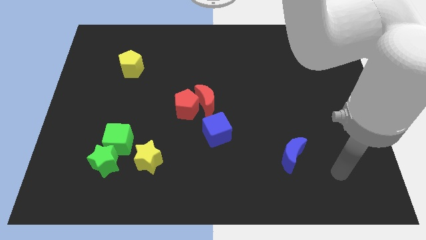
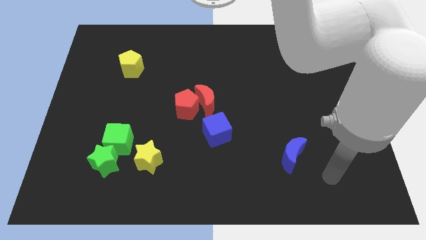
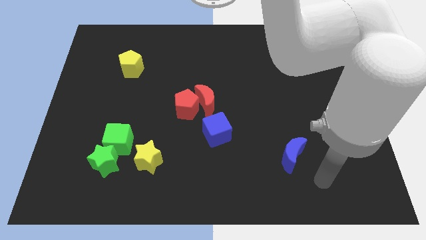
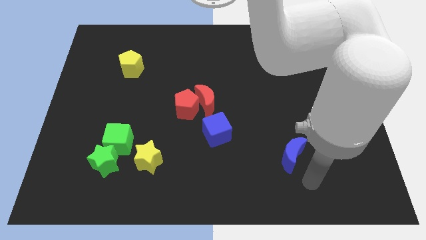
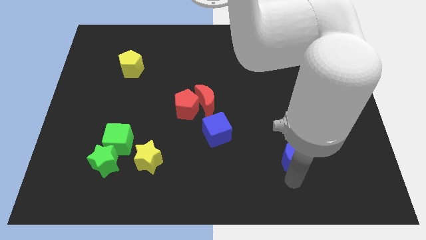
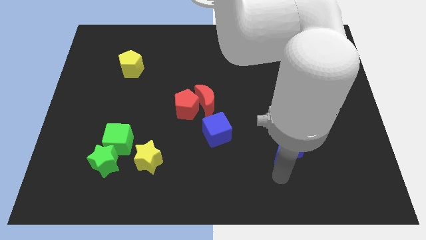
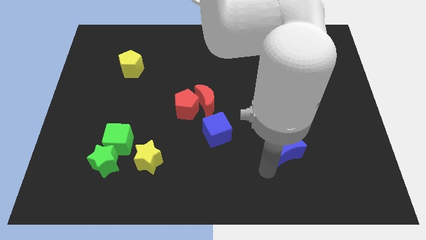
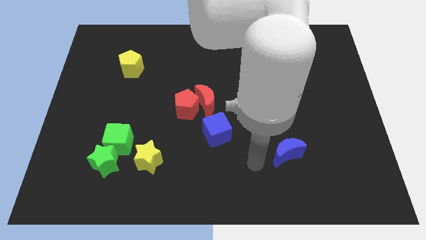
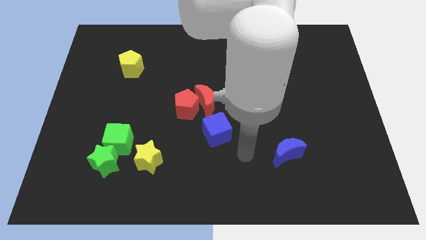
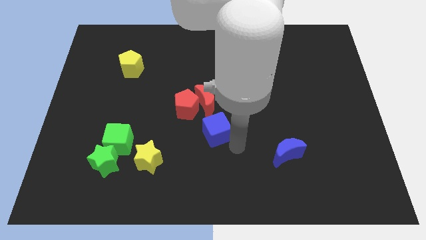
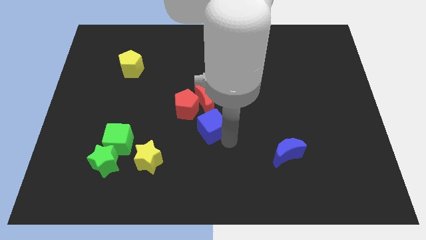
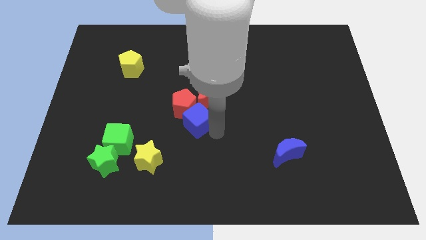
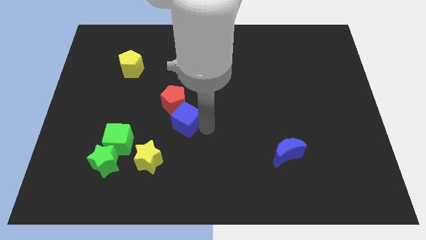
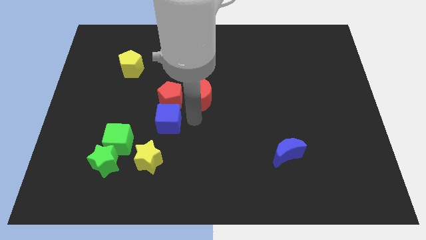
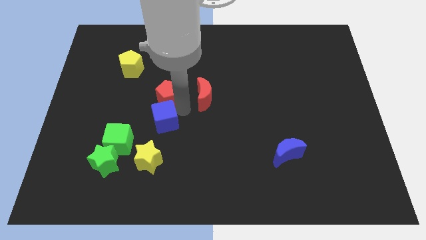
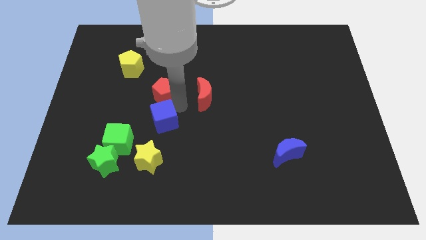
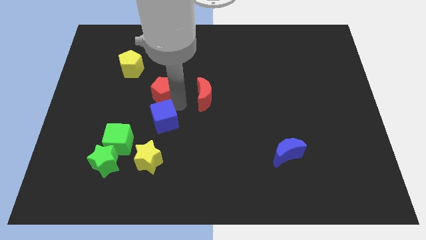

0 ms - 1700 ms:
pull the red moon apart from the red pentagon and blue cube

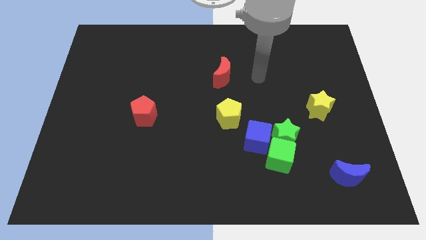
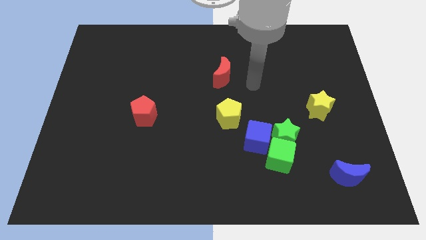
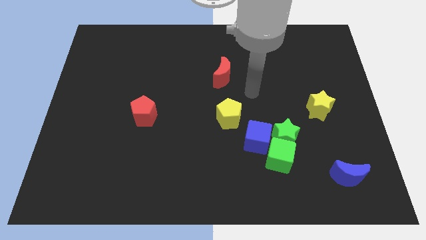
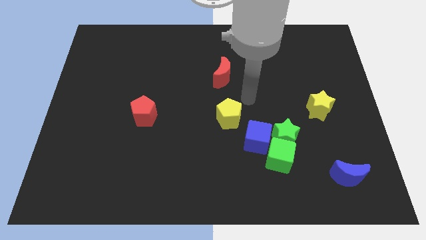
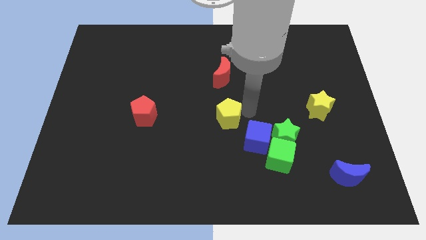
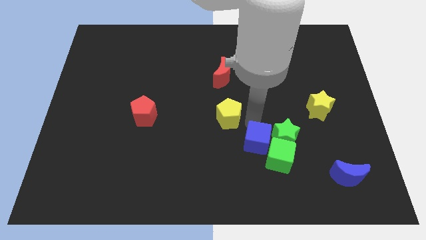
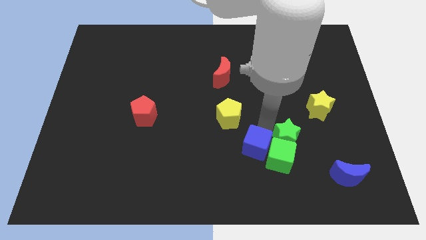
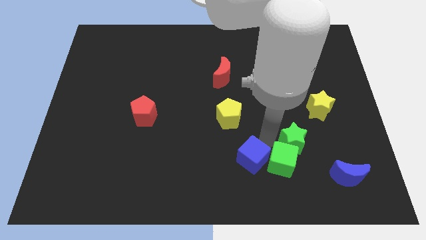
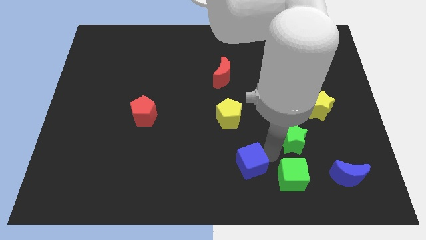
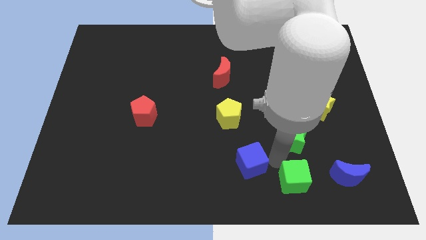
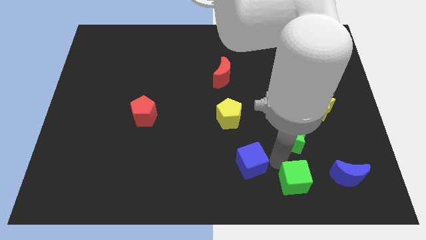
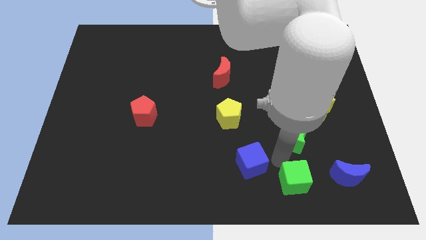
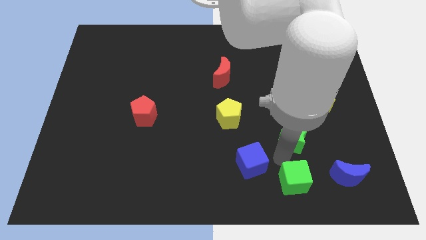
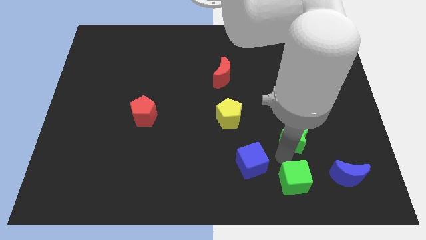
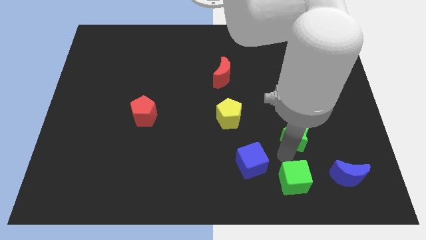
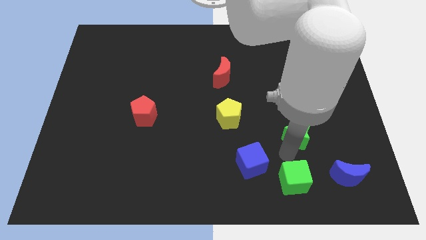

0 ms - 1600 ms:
pull the green star apart from the green cube and blue cube

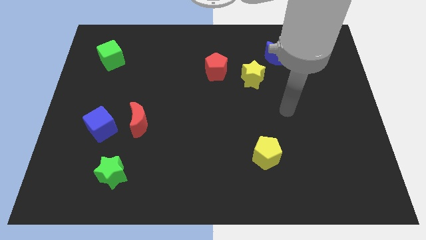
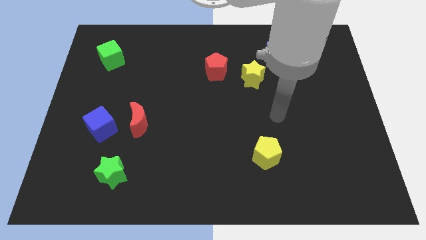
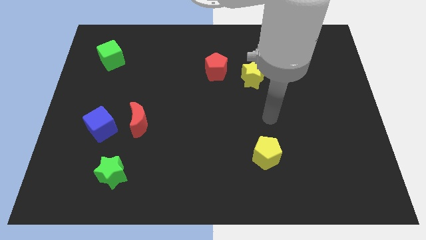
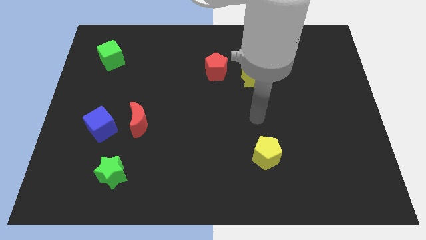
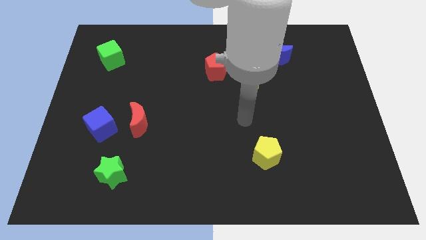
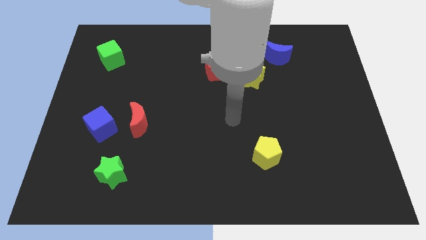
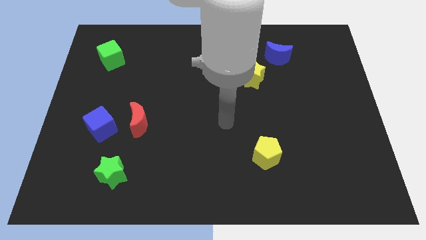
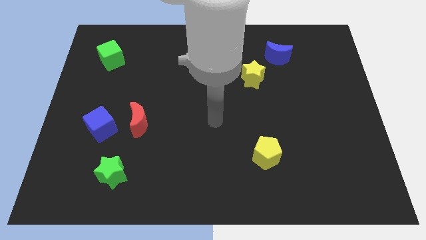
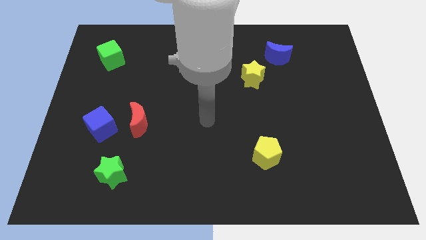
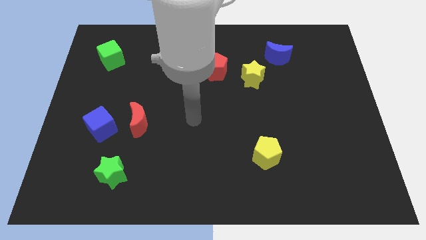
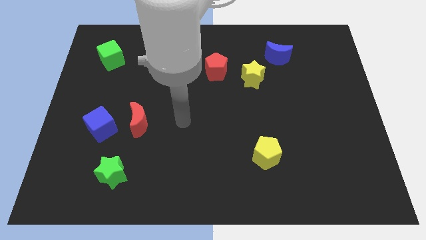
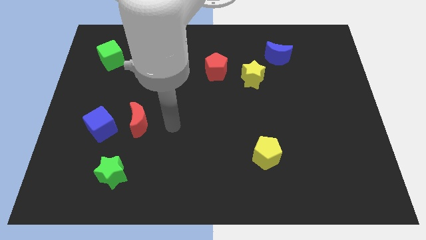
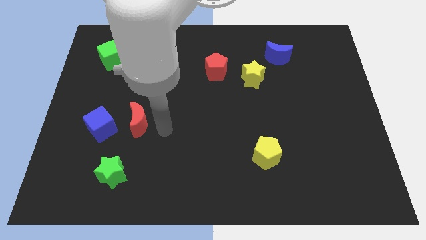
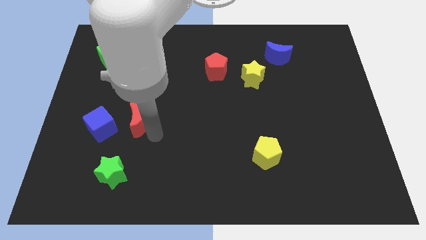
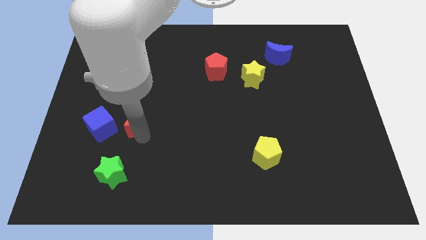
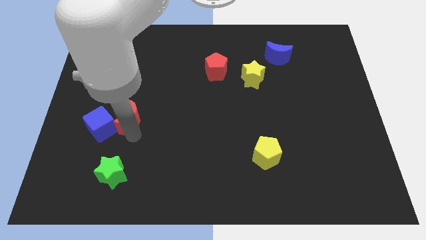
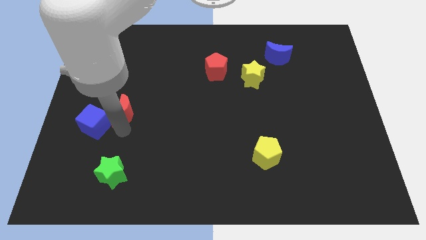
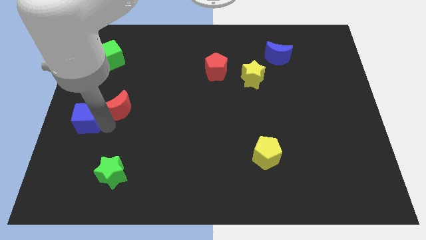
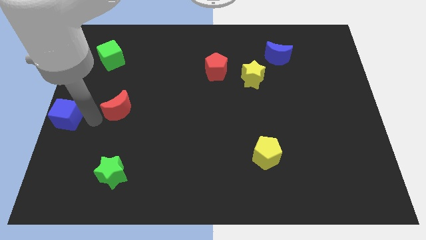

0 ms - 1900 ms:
move the red moon away from the blue cube

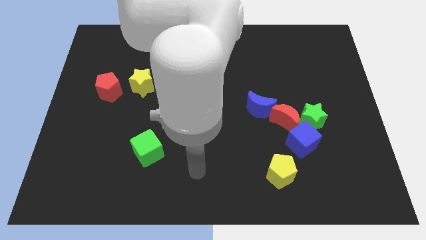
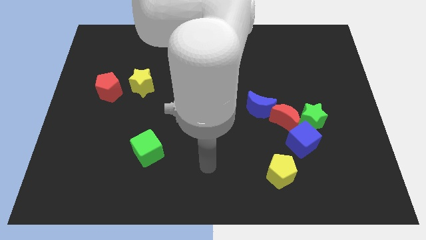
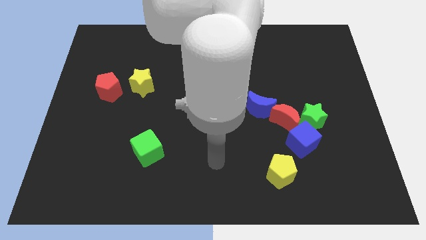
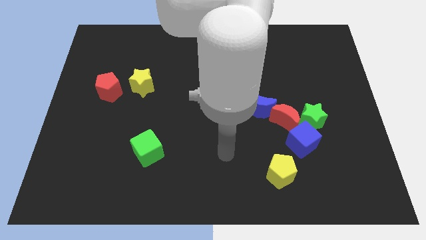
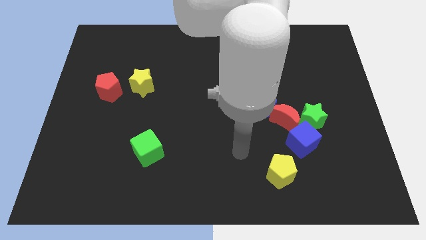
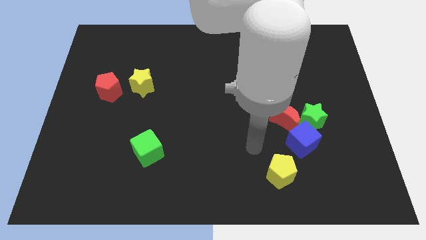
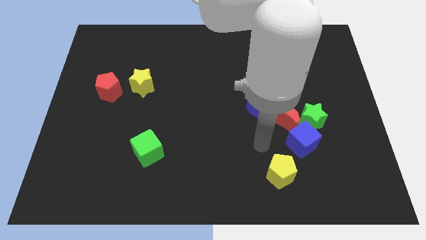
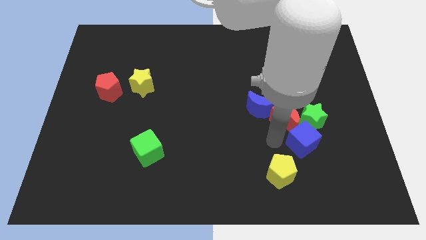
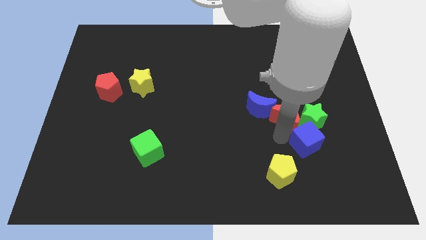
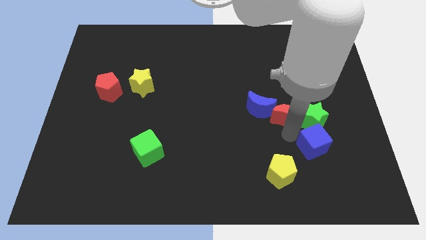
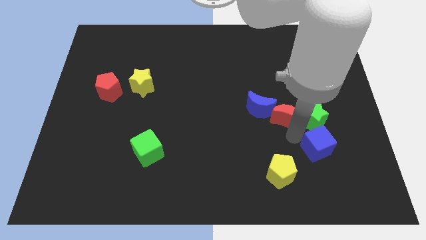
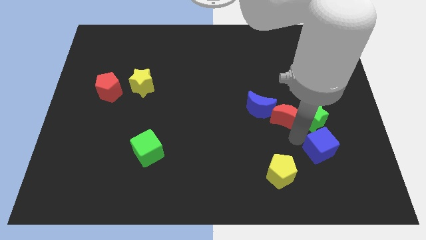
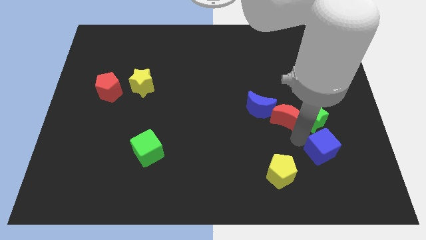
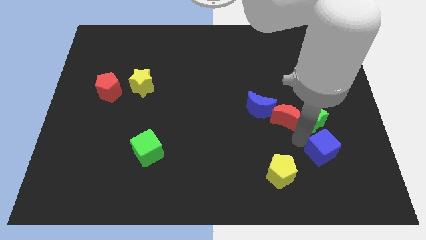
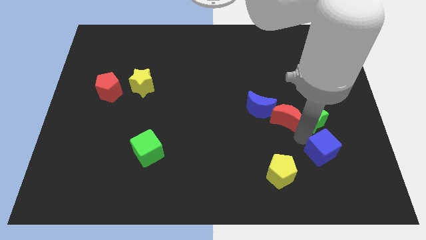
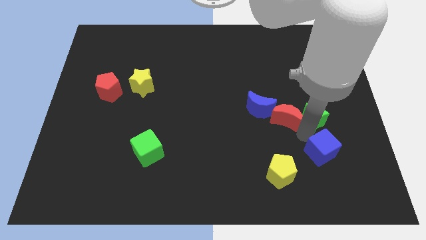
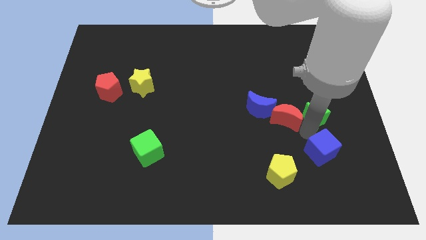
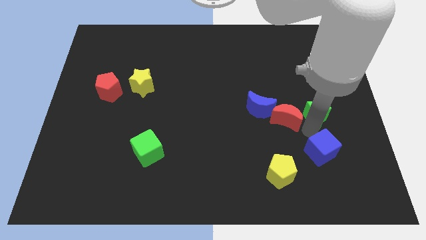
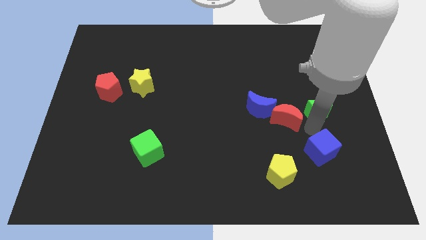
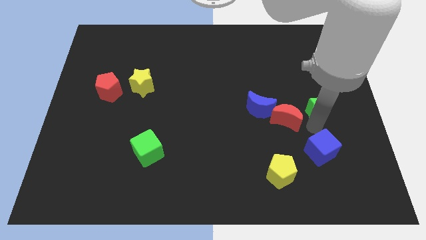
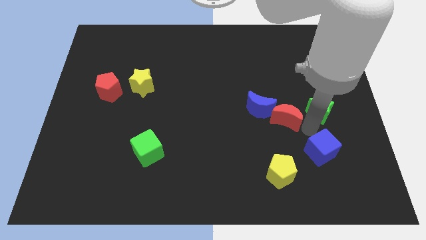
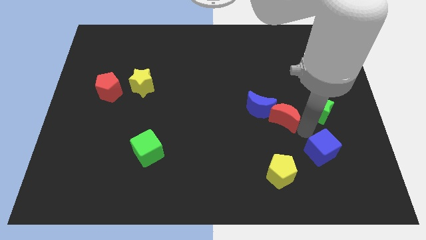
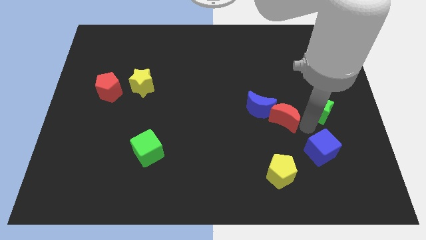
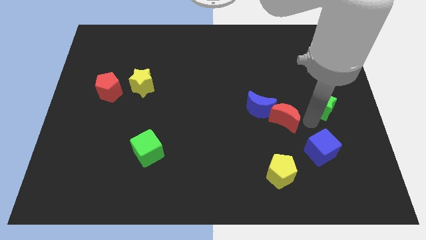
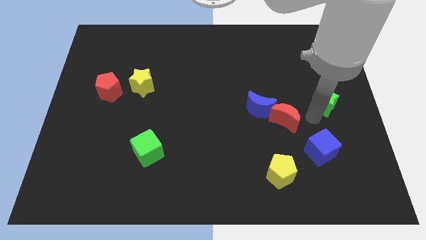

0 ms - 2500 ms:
move the green star away from the red moon and blue cube

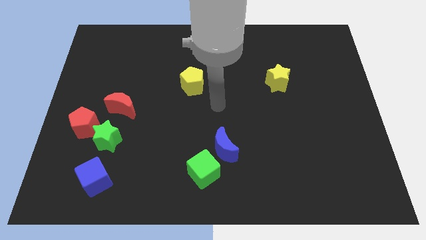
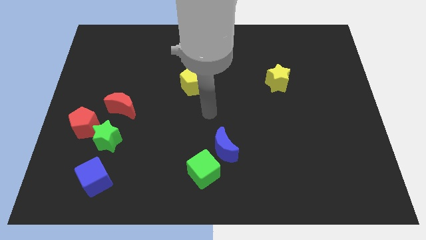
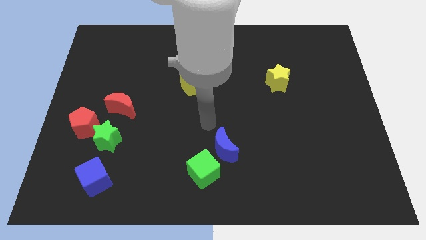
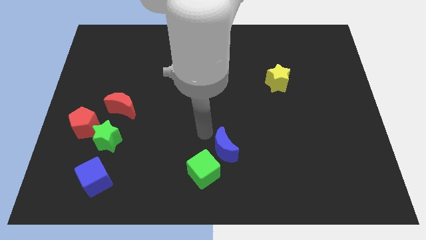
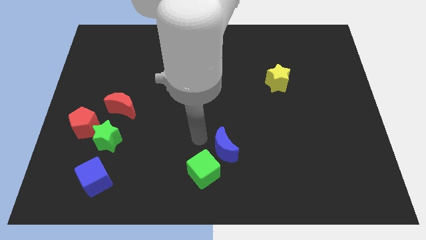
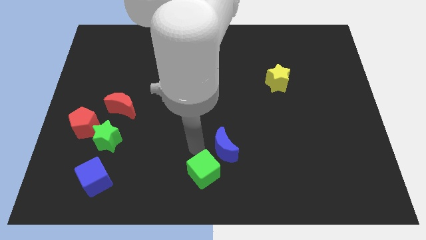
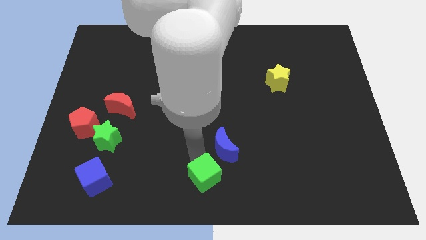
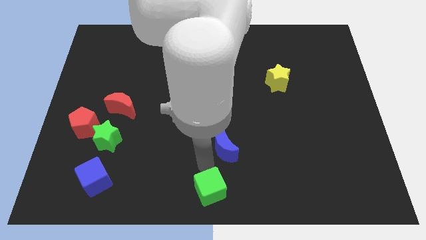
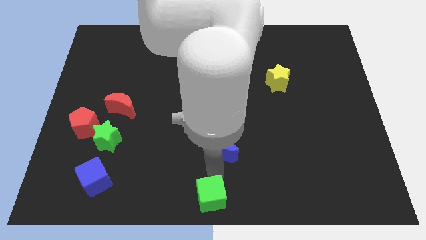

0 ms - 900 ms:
separate the blue moon from the green cube

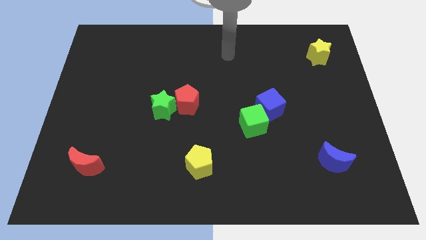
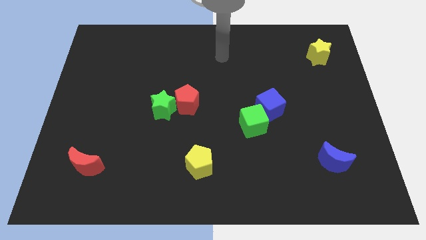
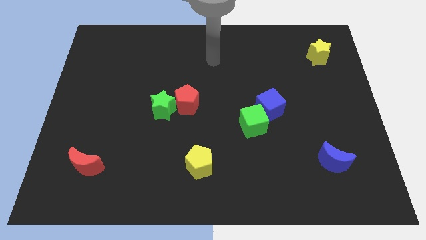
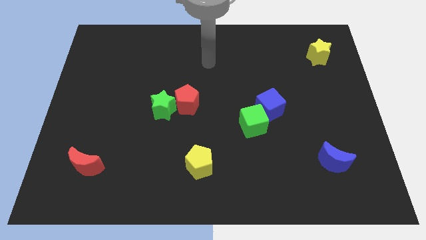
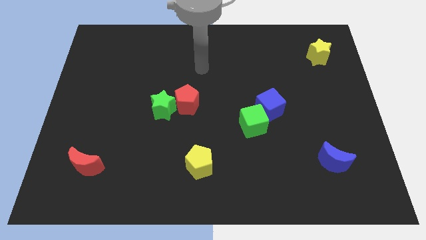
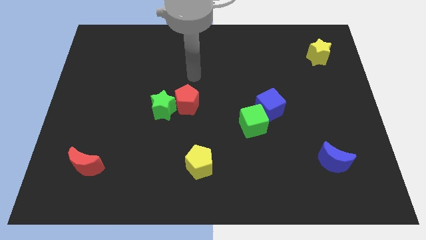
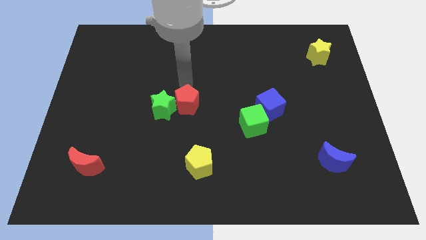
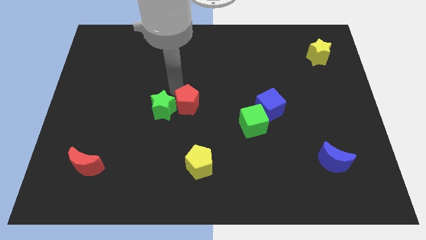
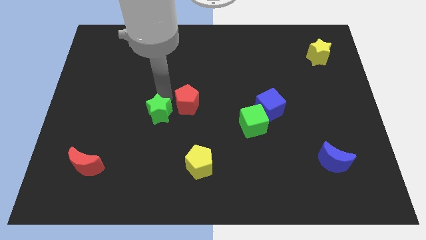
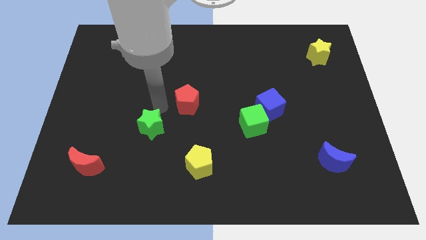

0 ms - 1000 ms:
separate the red pentagon from the green star
